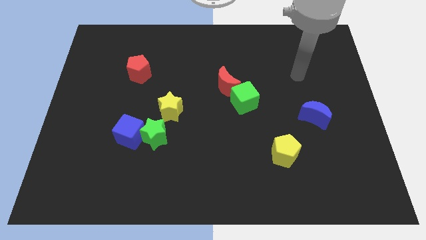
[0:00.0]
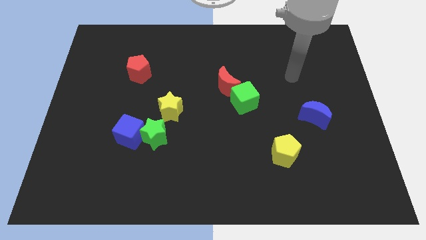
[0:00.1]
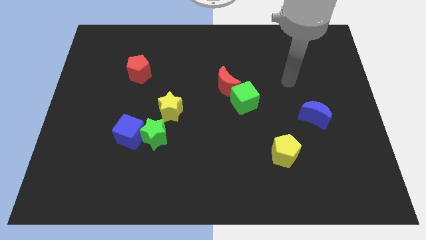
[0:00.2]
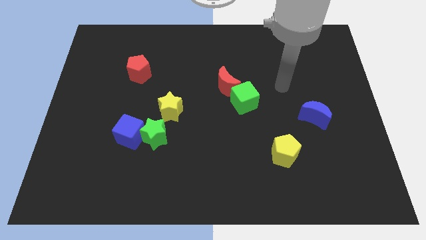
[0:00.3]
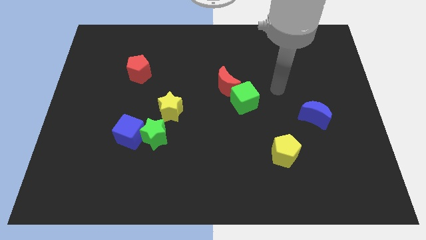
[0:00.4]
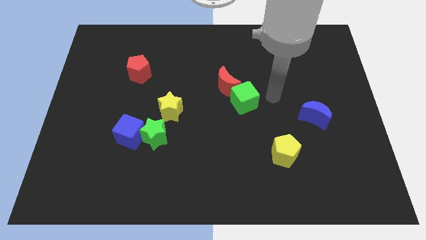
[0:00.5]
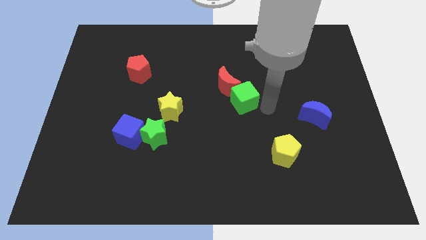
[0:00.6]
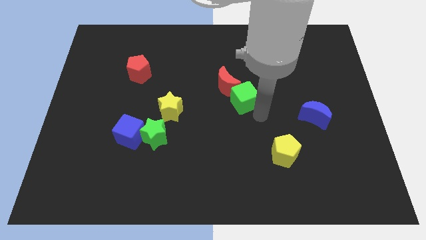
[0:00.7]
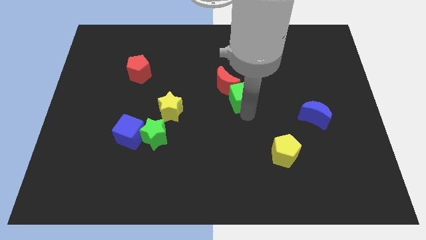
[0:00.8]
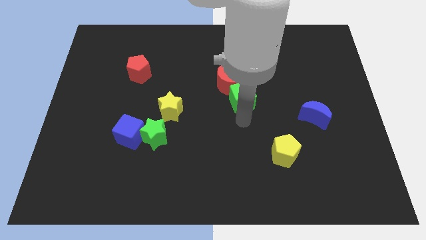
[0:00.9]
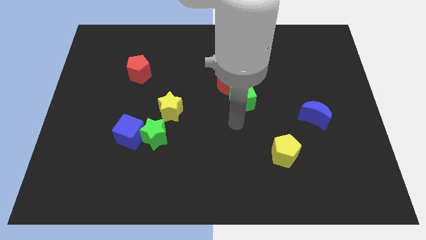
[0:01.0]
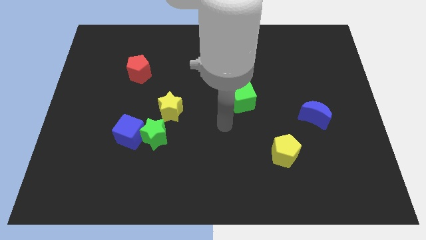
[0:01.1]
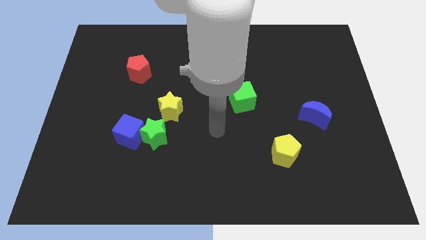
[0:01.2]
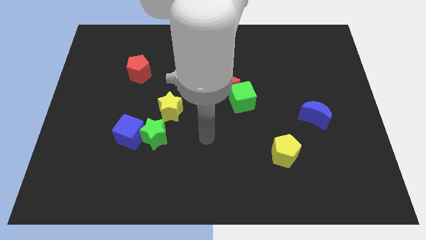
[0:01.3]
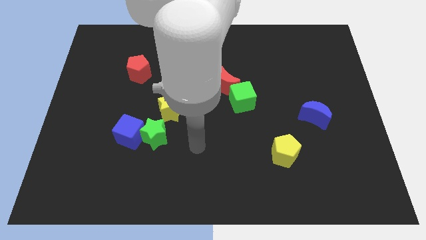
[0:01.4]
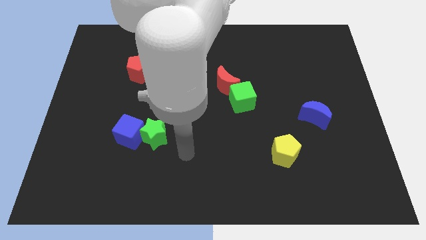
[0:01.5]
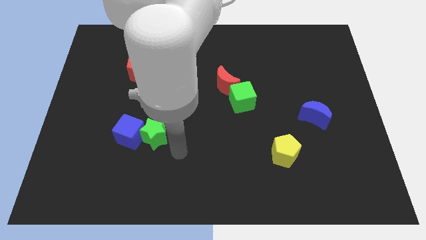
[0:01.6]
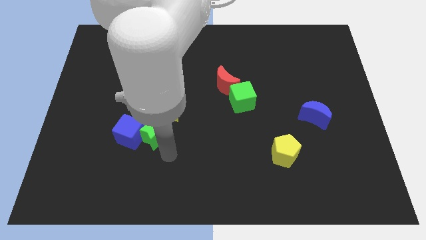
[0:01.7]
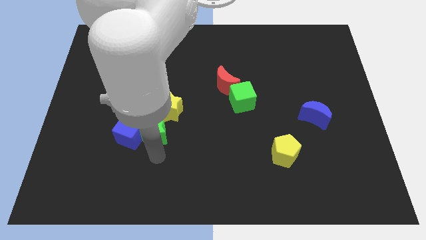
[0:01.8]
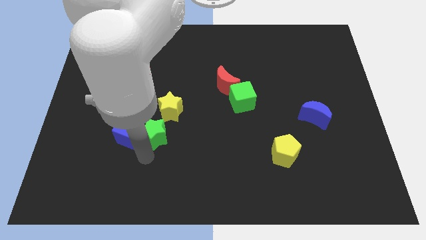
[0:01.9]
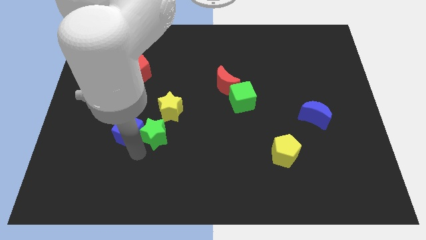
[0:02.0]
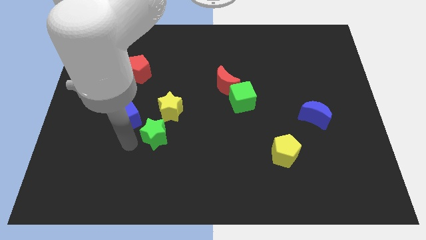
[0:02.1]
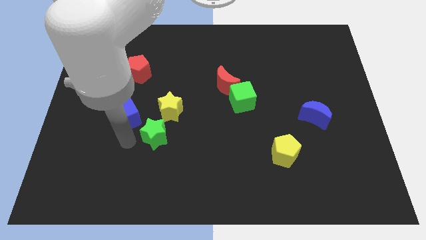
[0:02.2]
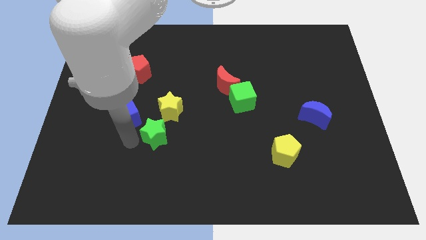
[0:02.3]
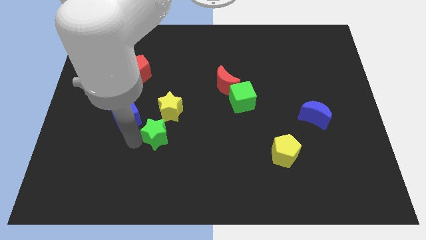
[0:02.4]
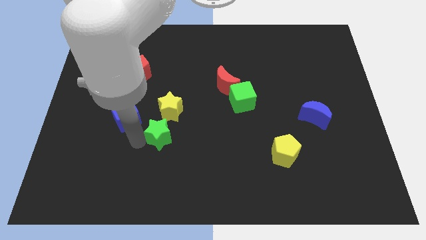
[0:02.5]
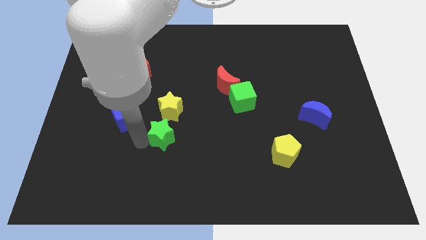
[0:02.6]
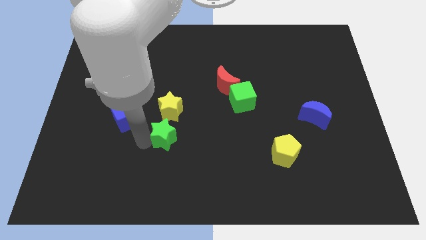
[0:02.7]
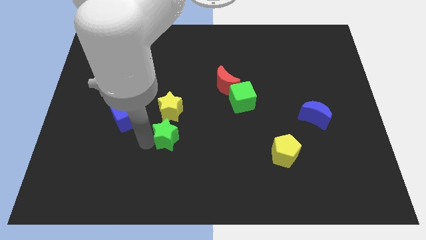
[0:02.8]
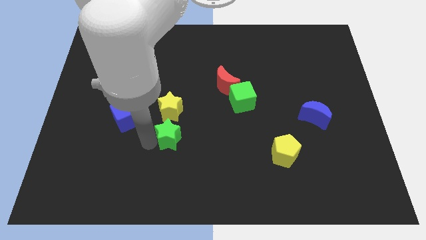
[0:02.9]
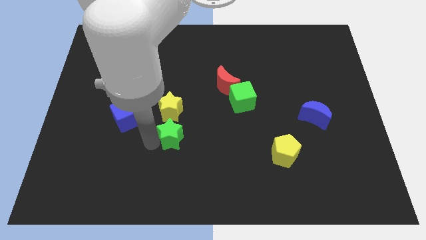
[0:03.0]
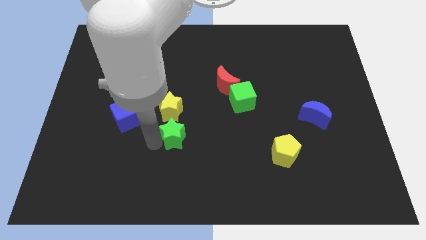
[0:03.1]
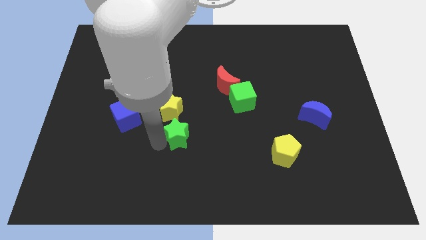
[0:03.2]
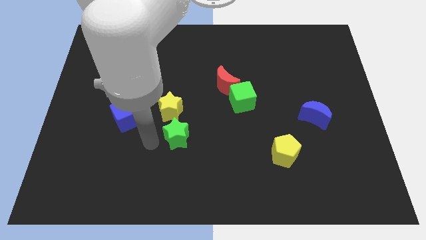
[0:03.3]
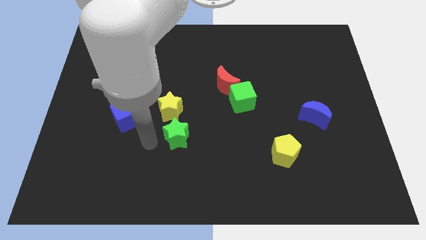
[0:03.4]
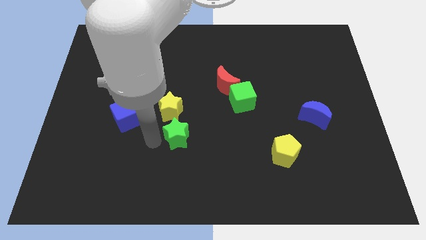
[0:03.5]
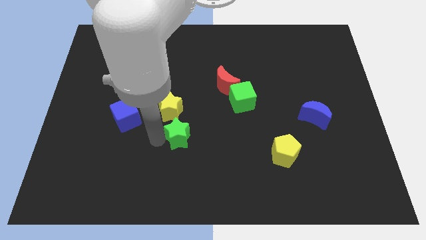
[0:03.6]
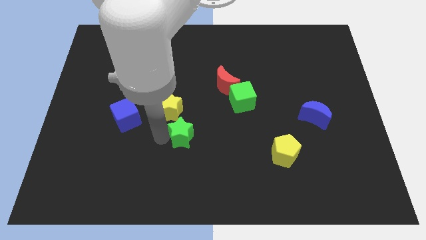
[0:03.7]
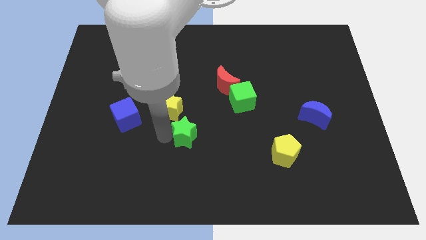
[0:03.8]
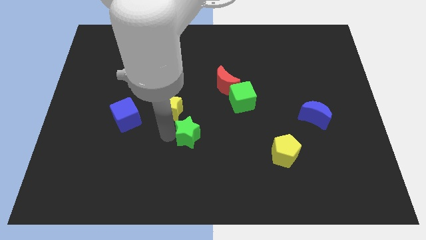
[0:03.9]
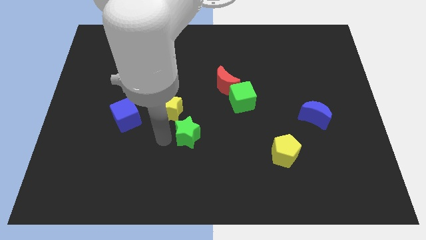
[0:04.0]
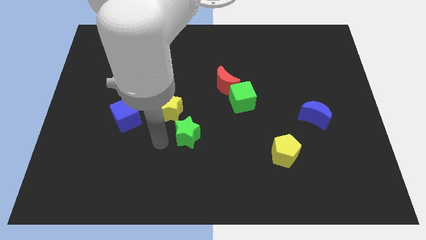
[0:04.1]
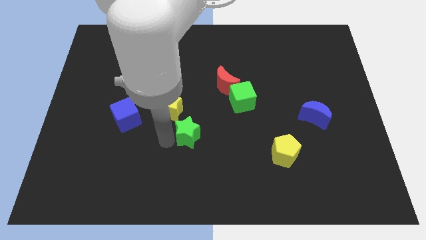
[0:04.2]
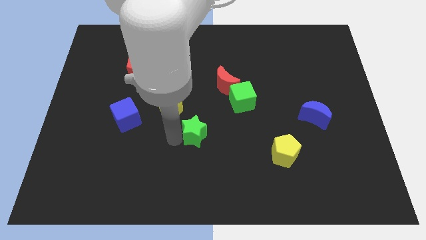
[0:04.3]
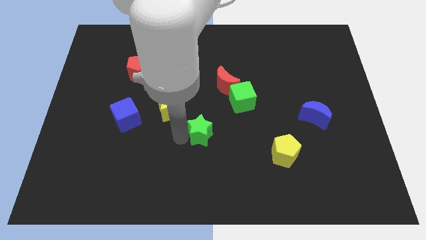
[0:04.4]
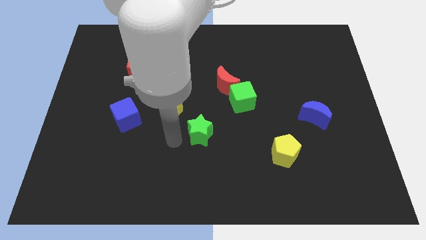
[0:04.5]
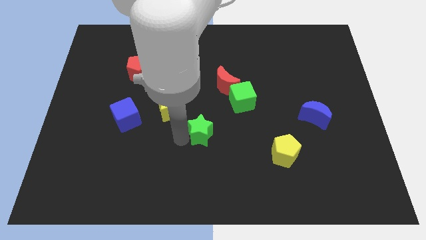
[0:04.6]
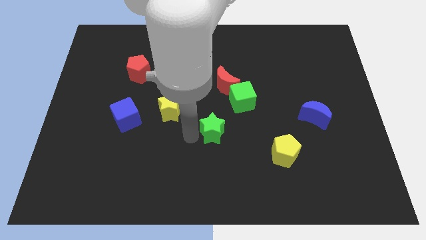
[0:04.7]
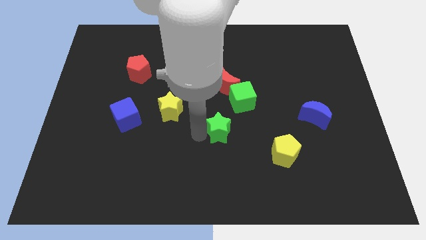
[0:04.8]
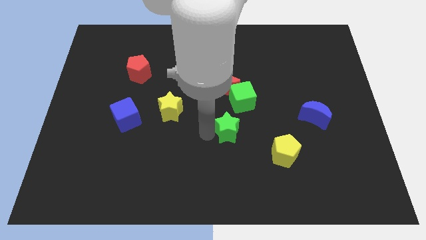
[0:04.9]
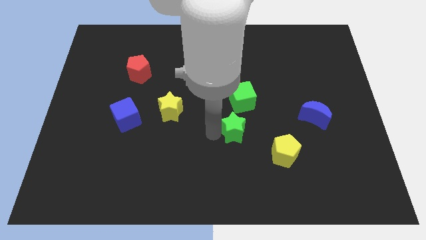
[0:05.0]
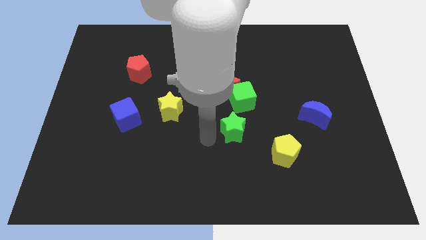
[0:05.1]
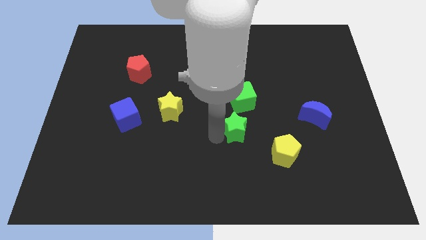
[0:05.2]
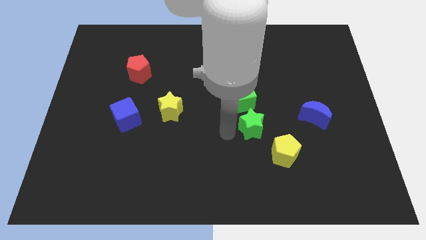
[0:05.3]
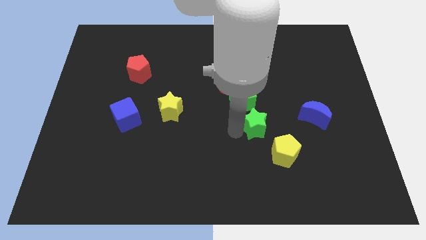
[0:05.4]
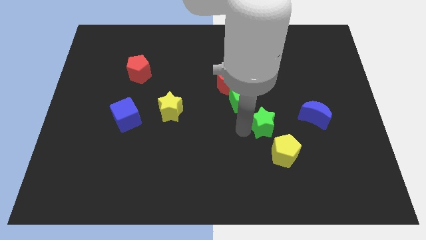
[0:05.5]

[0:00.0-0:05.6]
slide the green star to the top side of the yellow pentagon
